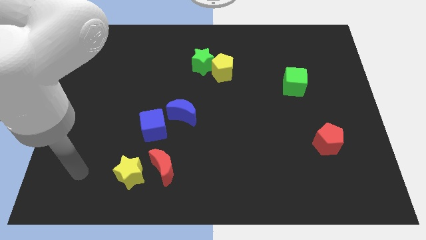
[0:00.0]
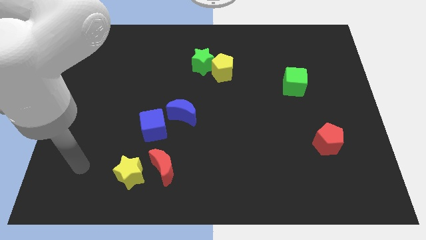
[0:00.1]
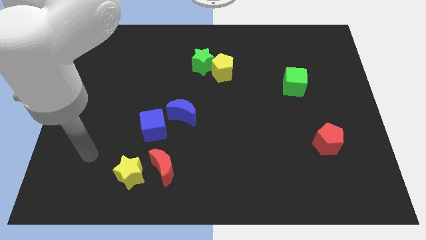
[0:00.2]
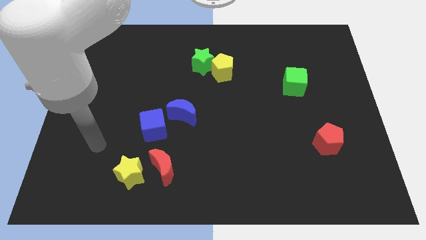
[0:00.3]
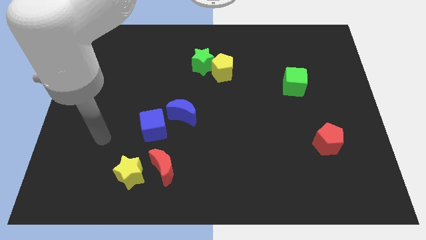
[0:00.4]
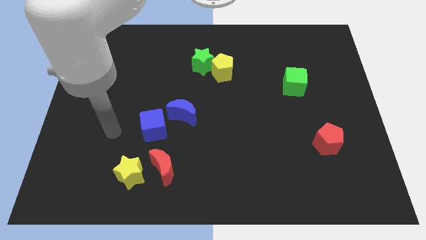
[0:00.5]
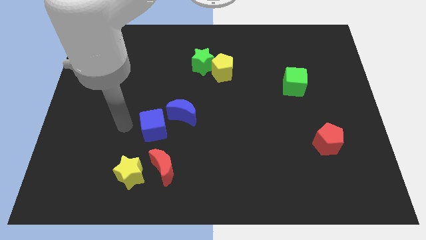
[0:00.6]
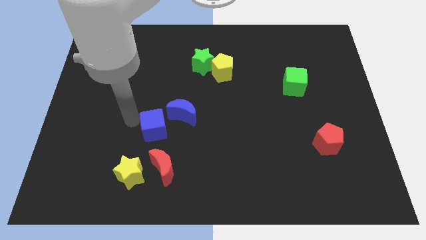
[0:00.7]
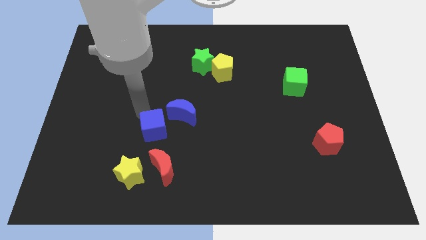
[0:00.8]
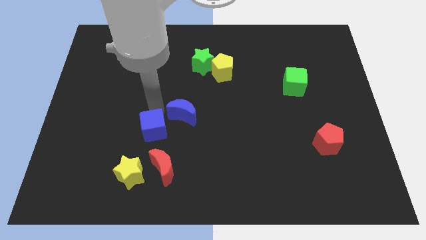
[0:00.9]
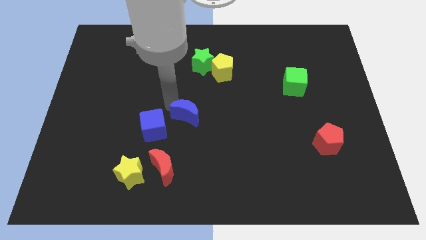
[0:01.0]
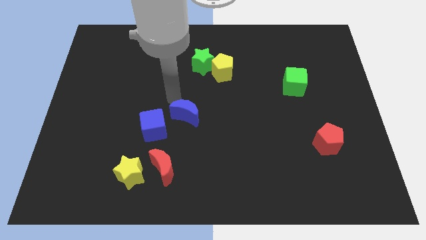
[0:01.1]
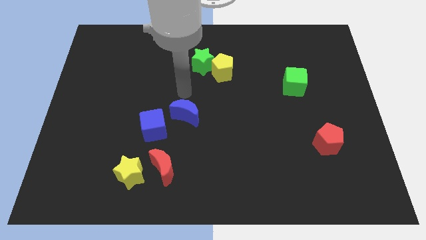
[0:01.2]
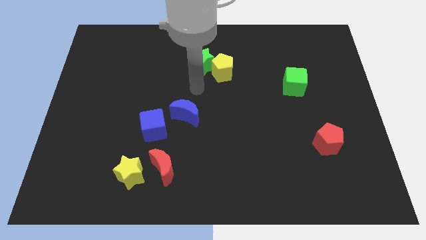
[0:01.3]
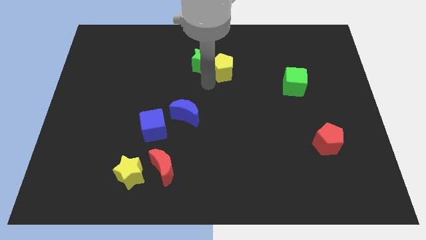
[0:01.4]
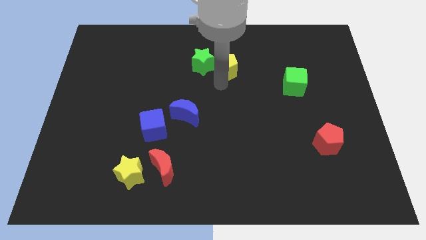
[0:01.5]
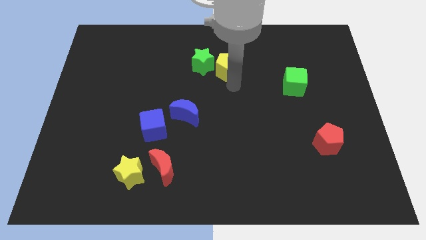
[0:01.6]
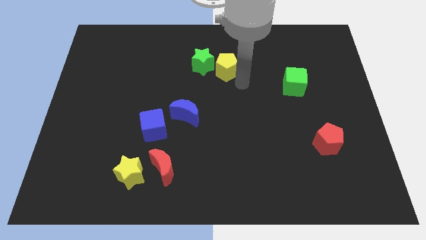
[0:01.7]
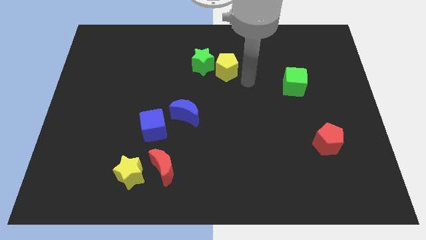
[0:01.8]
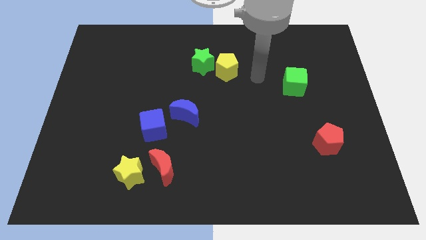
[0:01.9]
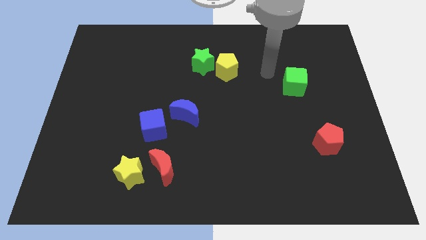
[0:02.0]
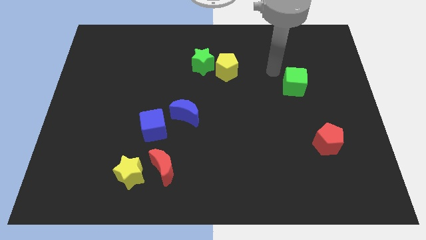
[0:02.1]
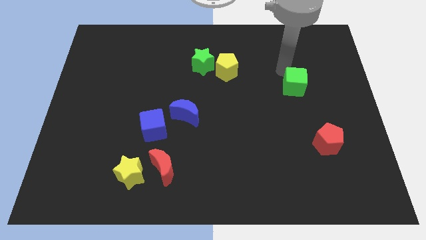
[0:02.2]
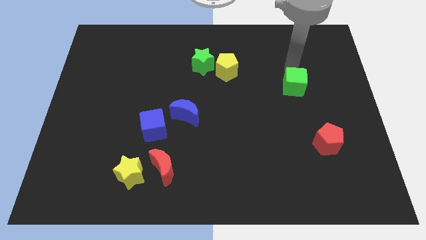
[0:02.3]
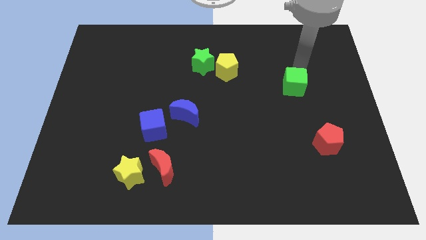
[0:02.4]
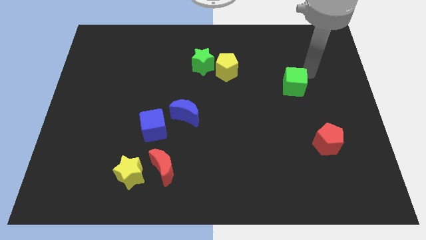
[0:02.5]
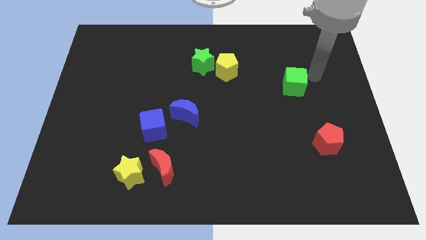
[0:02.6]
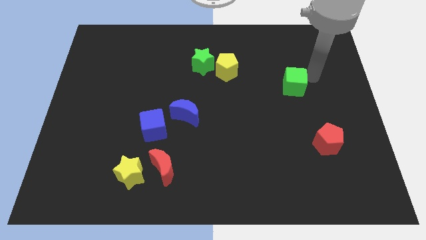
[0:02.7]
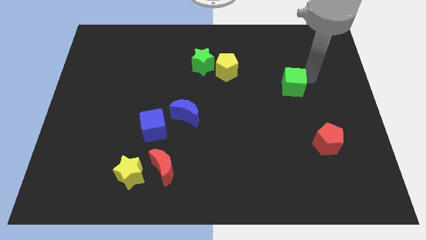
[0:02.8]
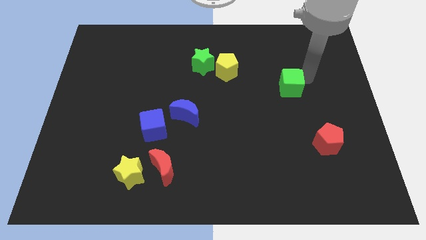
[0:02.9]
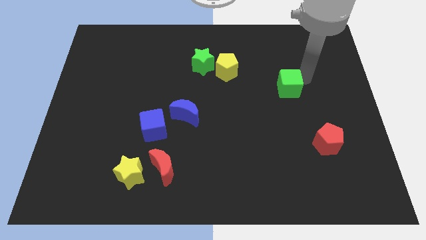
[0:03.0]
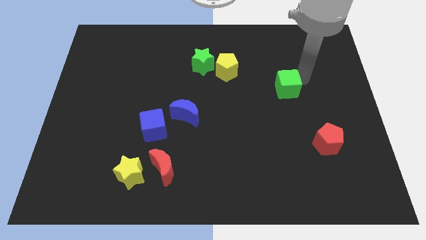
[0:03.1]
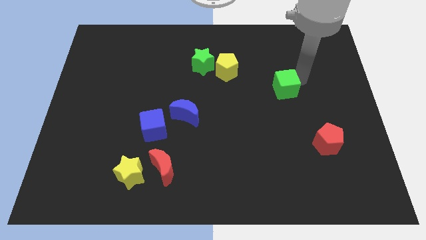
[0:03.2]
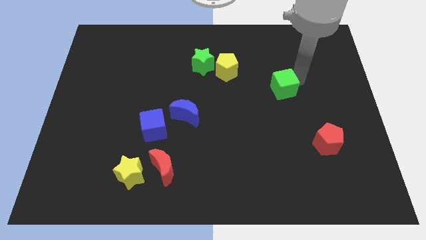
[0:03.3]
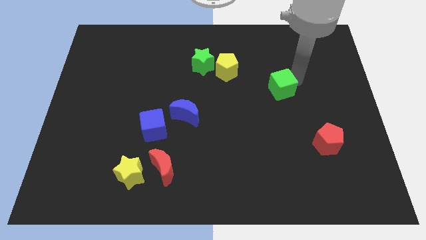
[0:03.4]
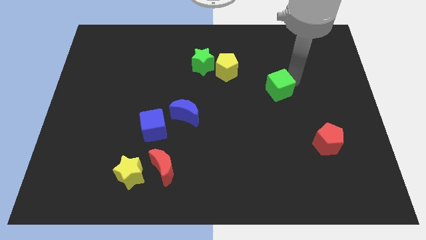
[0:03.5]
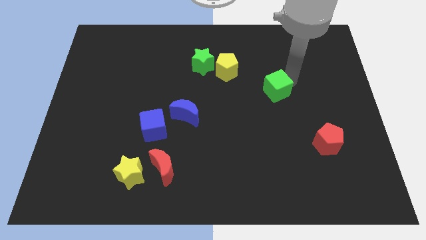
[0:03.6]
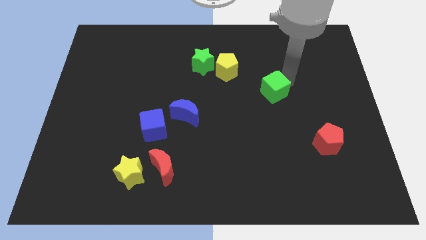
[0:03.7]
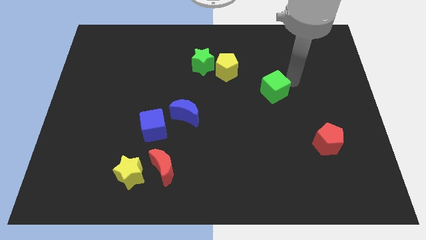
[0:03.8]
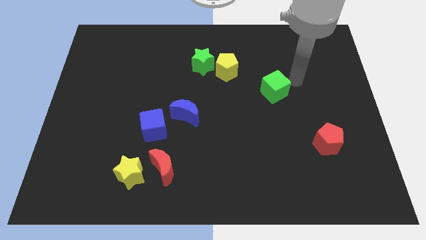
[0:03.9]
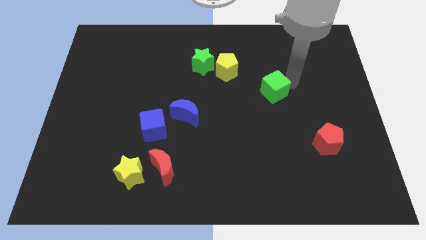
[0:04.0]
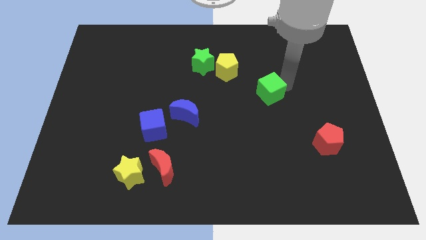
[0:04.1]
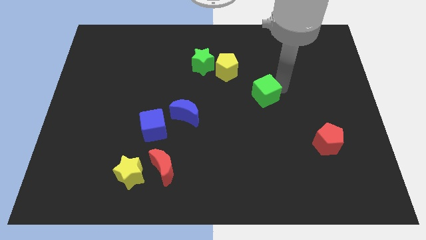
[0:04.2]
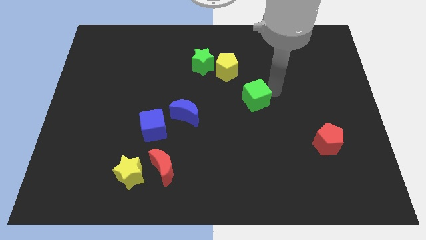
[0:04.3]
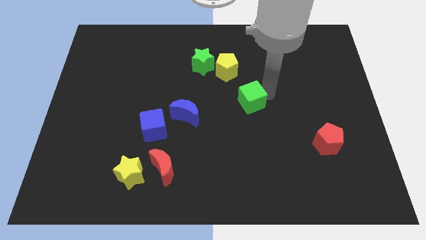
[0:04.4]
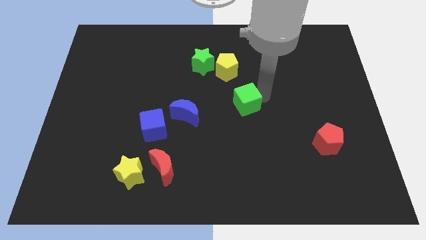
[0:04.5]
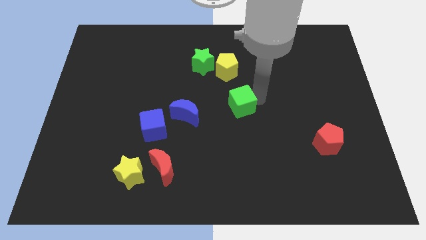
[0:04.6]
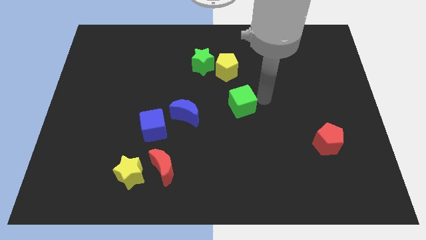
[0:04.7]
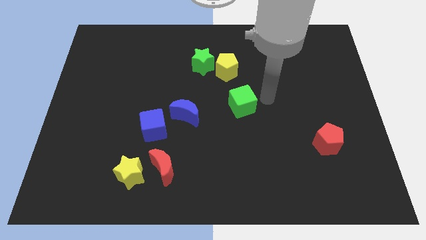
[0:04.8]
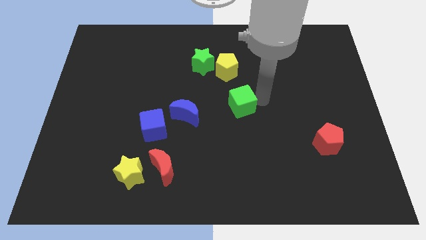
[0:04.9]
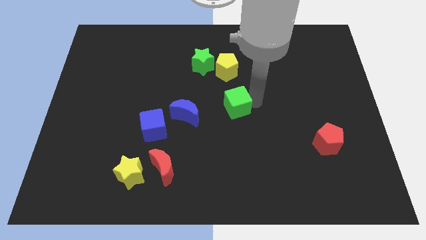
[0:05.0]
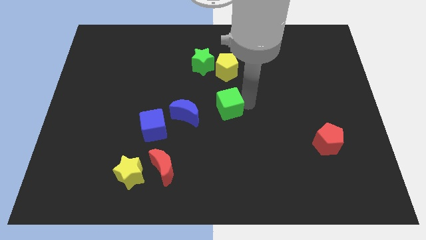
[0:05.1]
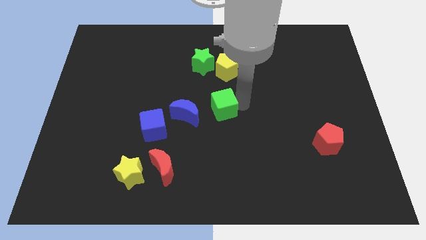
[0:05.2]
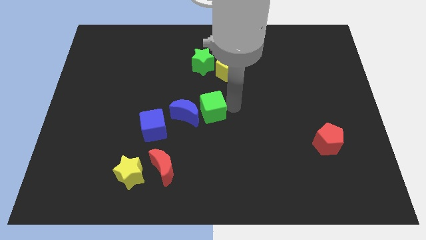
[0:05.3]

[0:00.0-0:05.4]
put the green cube close to the blue moon

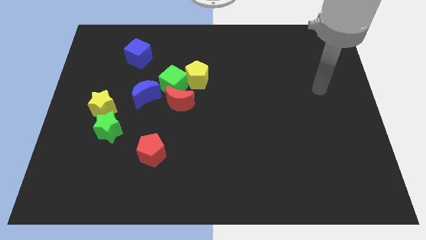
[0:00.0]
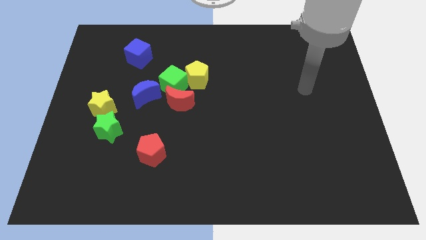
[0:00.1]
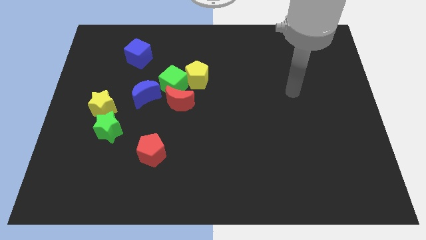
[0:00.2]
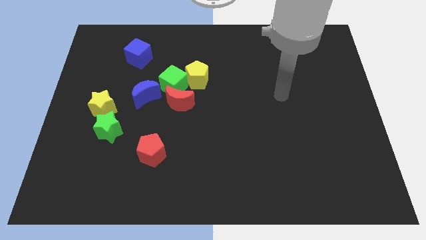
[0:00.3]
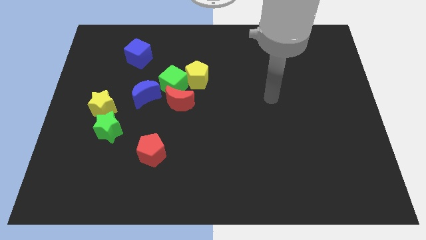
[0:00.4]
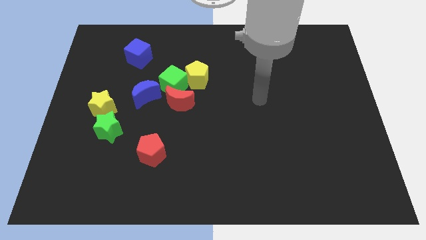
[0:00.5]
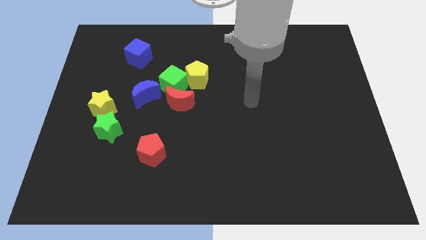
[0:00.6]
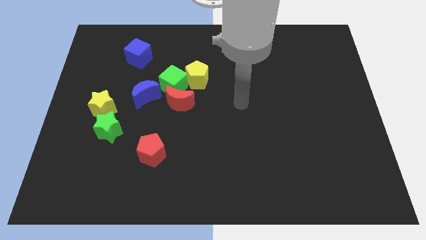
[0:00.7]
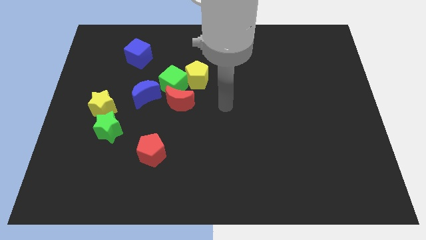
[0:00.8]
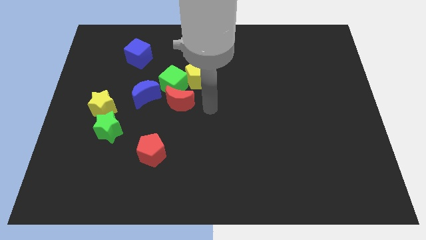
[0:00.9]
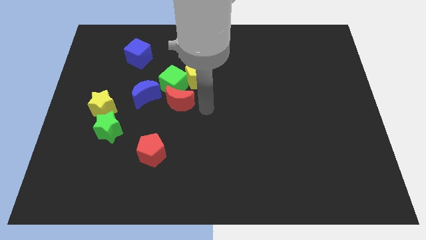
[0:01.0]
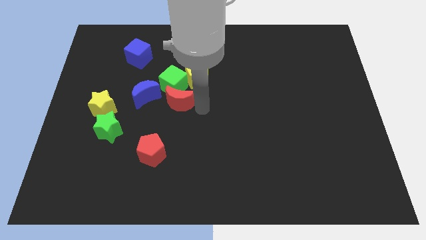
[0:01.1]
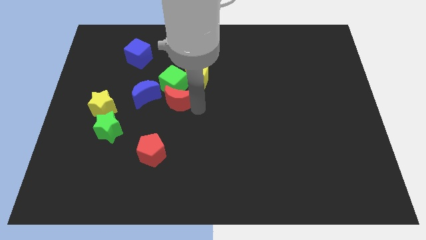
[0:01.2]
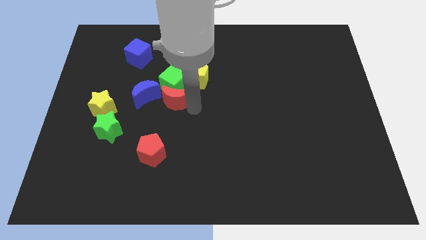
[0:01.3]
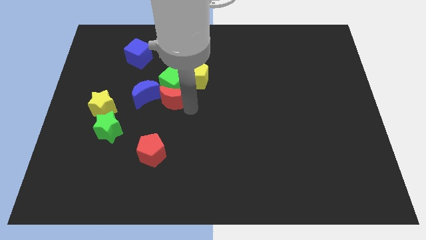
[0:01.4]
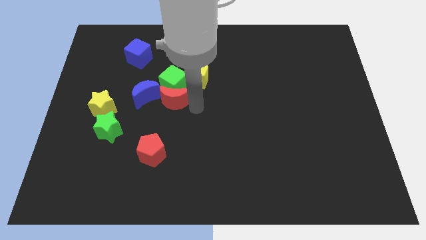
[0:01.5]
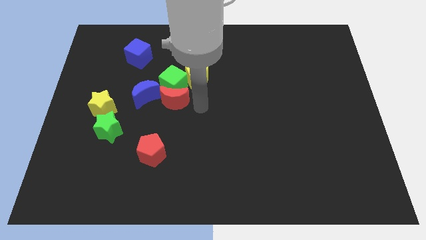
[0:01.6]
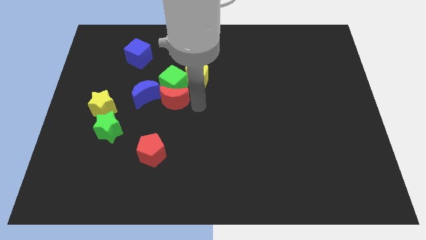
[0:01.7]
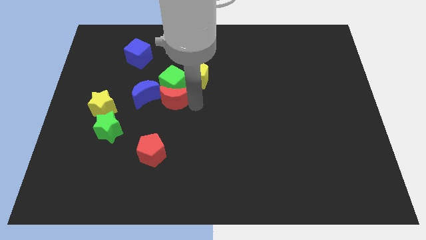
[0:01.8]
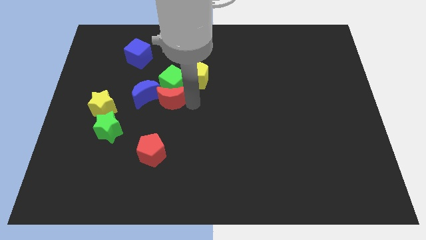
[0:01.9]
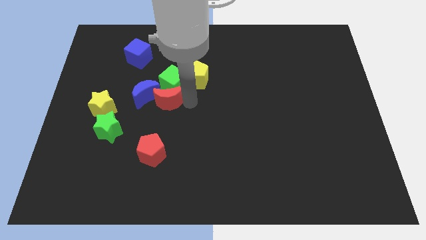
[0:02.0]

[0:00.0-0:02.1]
put the red moon close to the blue moon

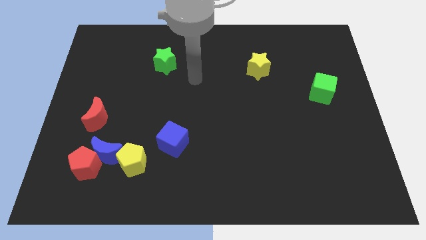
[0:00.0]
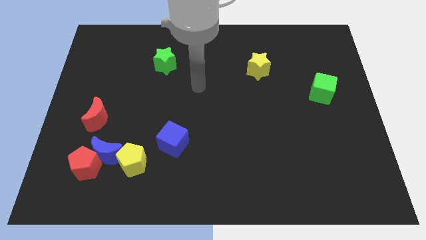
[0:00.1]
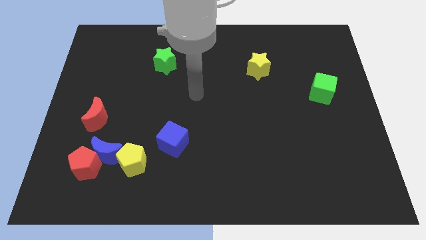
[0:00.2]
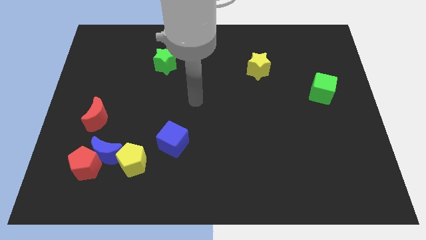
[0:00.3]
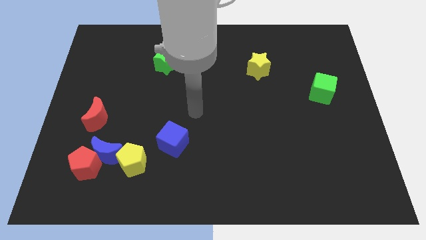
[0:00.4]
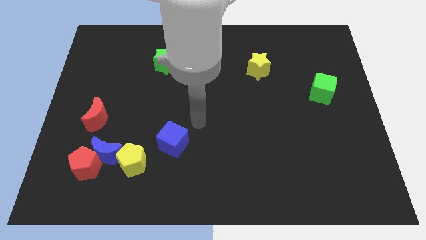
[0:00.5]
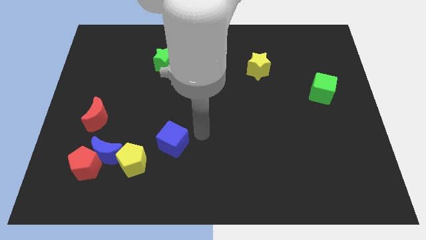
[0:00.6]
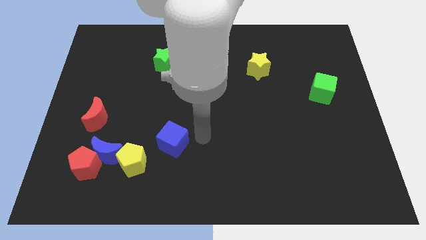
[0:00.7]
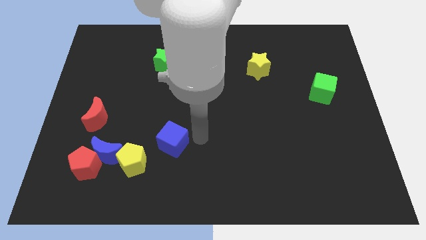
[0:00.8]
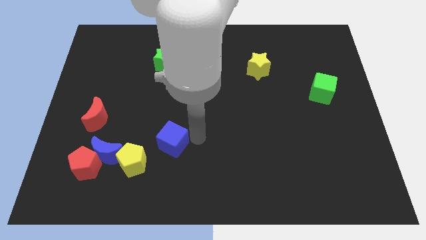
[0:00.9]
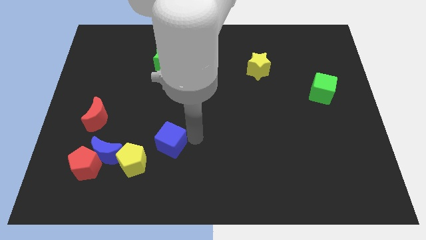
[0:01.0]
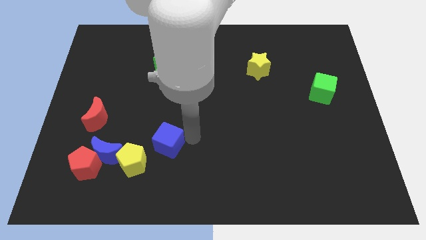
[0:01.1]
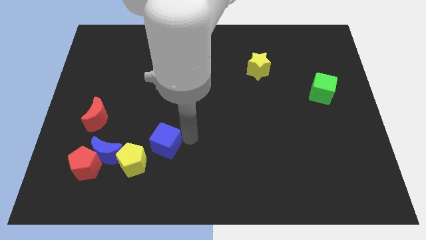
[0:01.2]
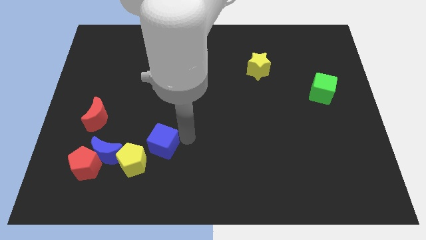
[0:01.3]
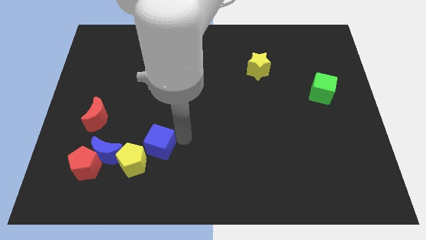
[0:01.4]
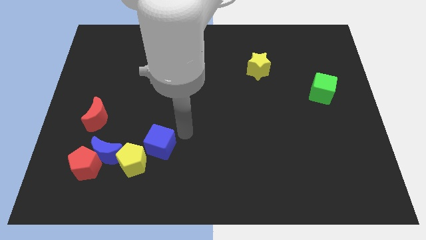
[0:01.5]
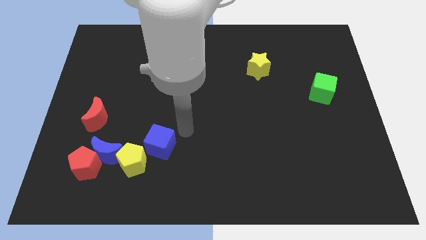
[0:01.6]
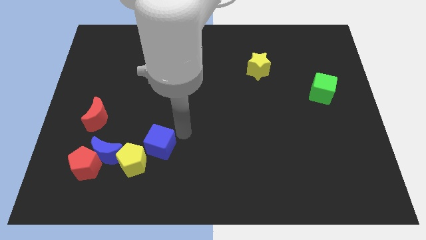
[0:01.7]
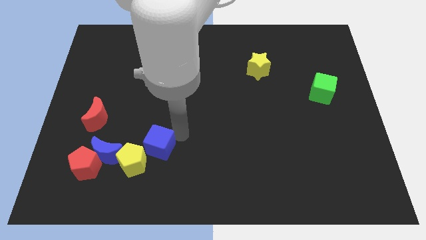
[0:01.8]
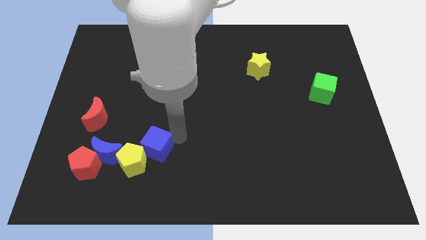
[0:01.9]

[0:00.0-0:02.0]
put the blue cube next to the yellow pentagon
